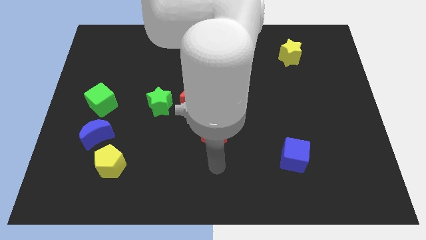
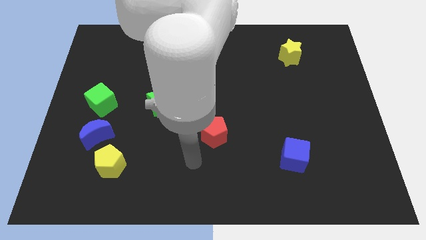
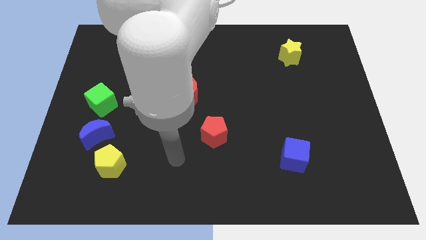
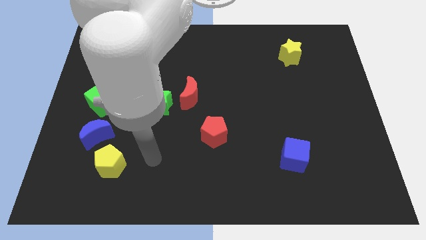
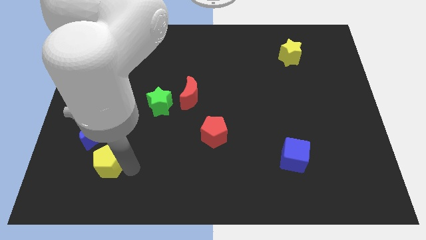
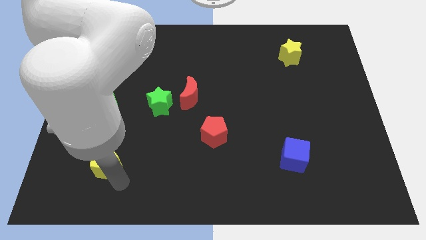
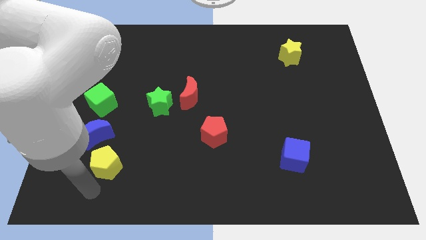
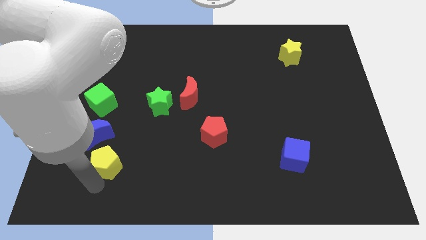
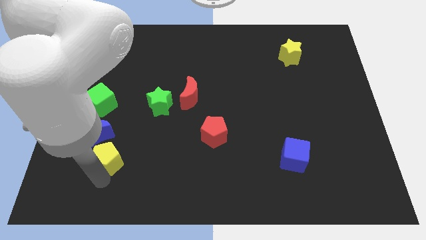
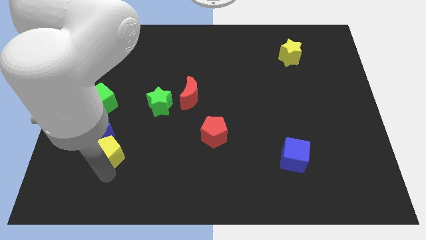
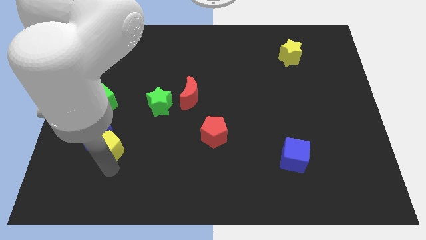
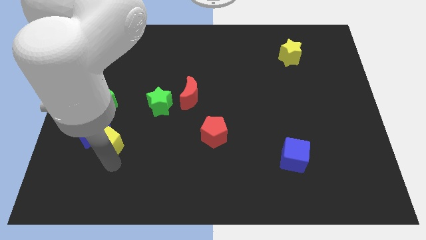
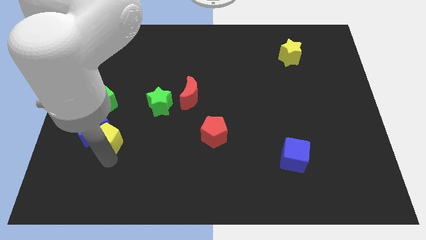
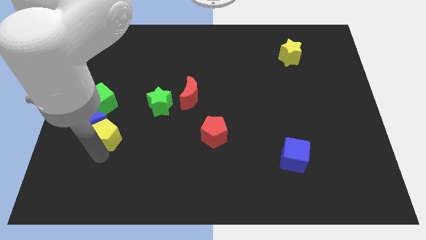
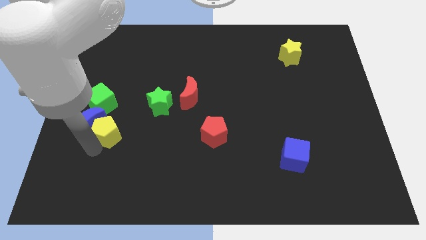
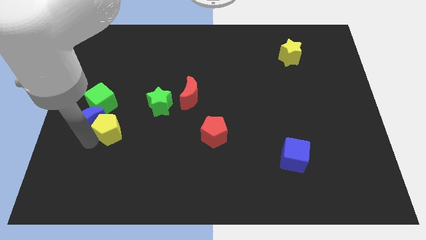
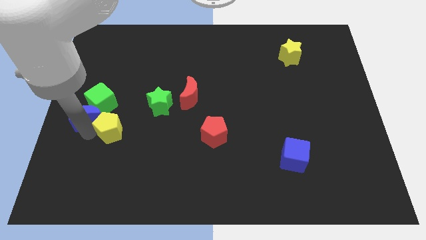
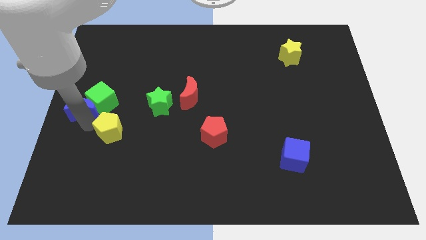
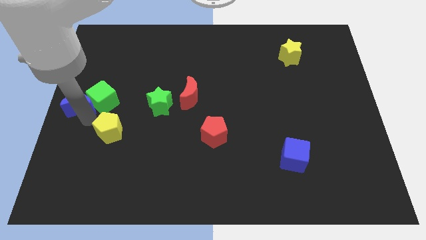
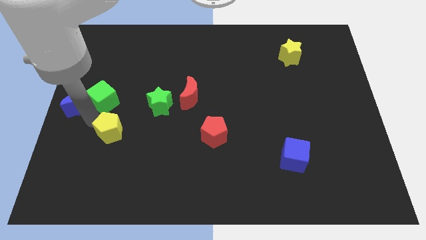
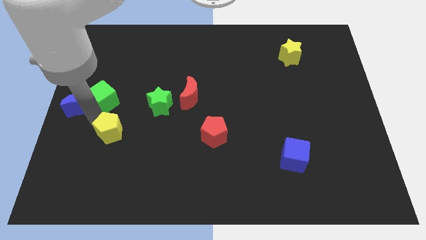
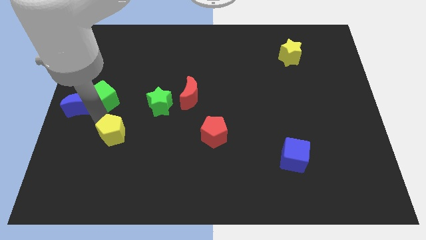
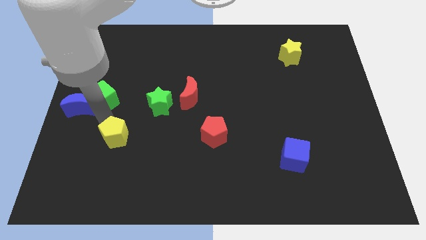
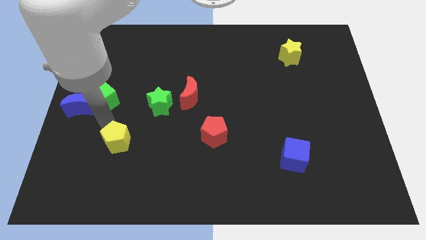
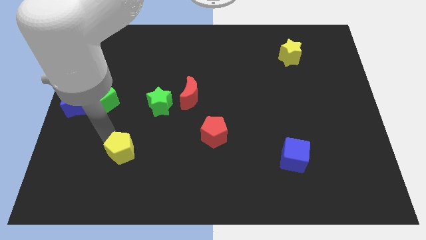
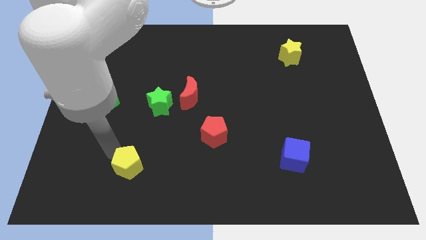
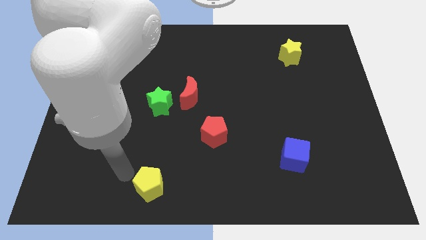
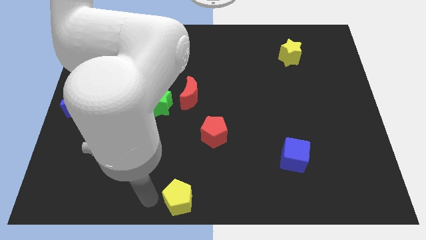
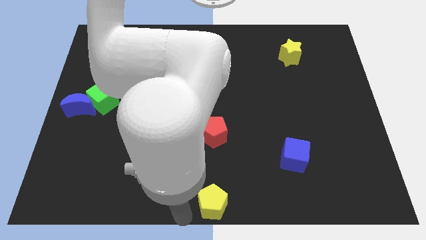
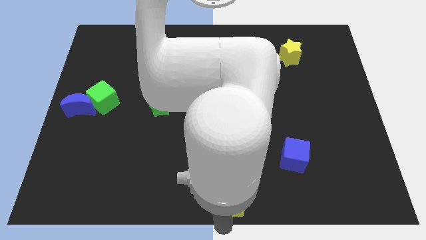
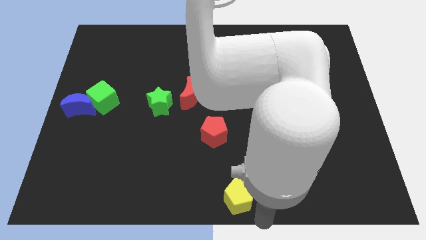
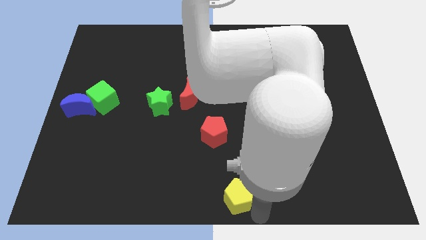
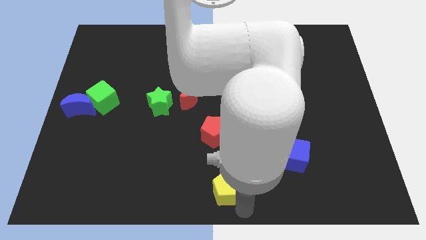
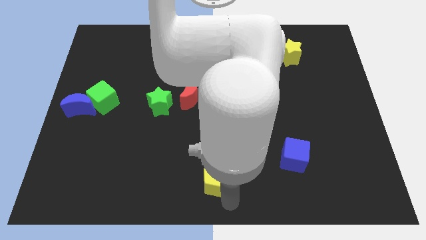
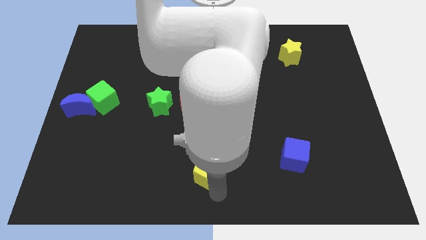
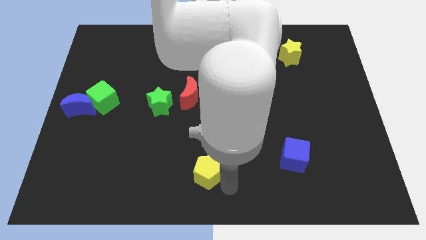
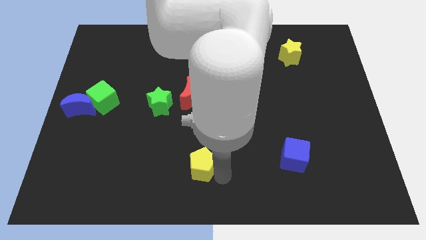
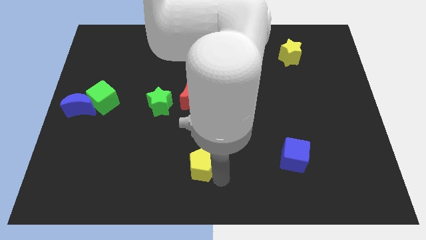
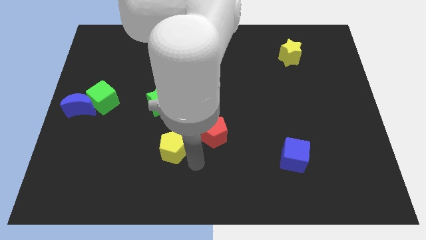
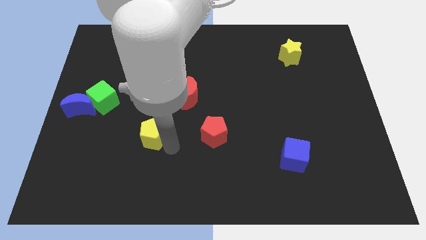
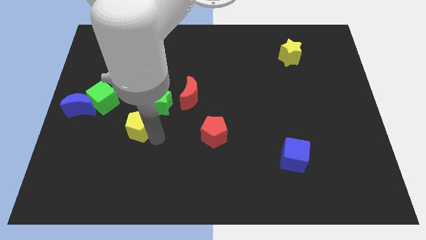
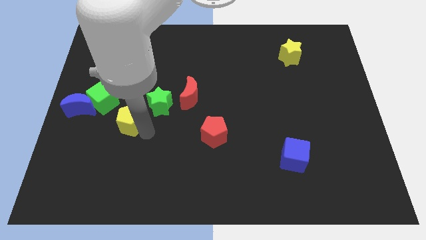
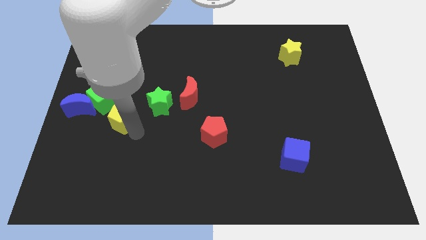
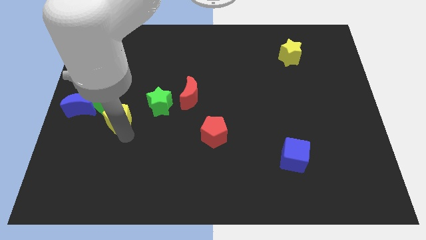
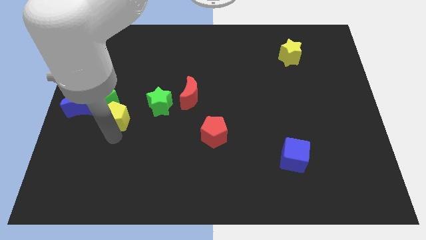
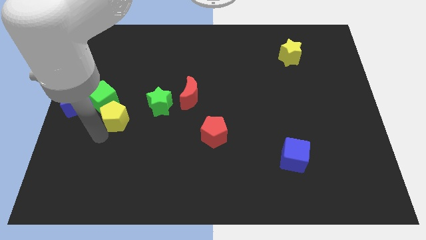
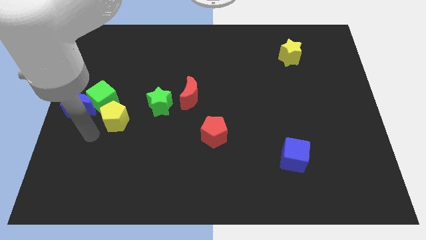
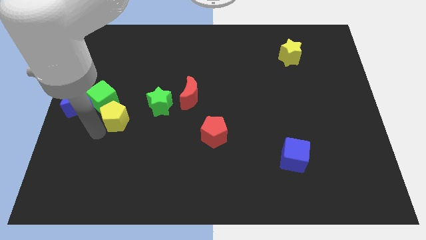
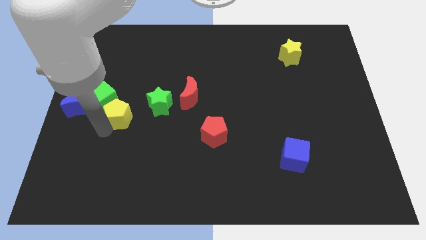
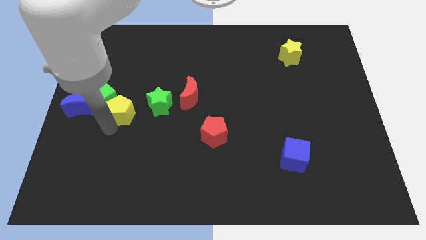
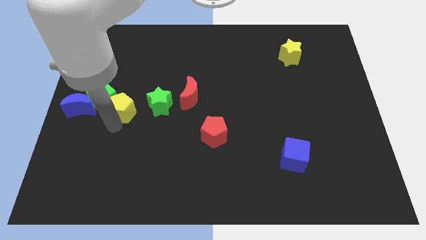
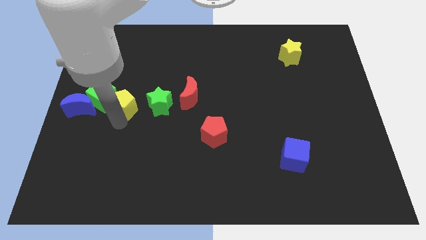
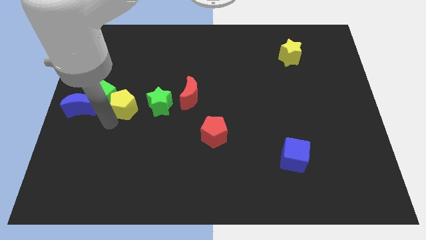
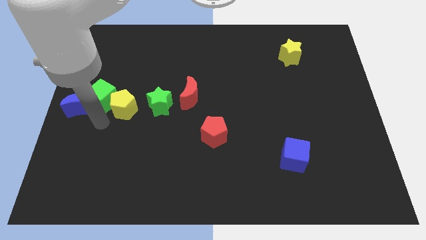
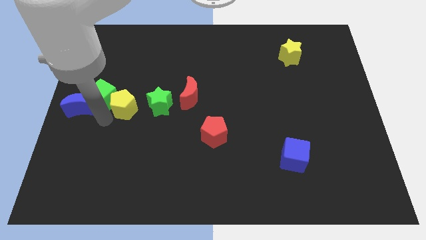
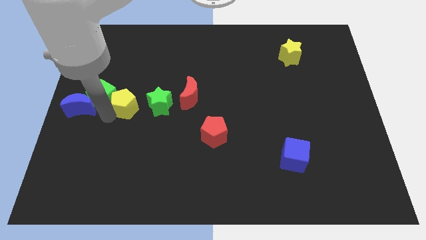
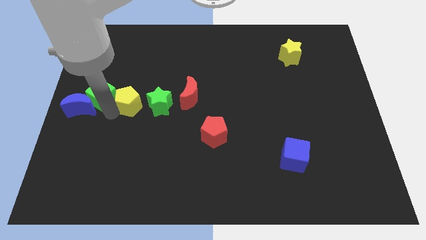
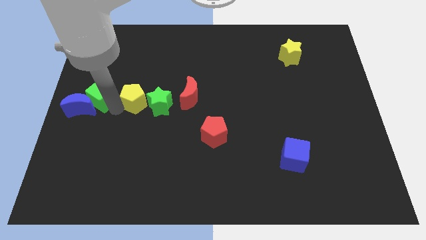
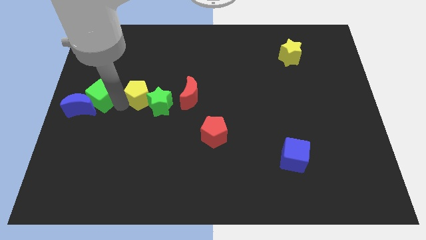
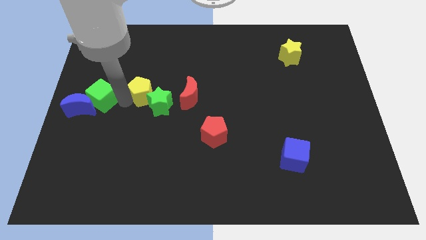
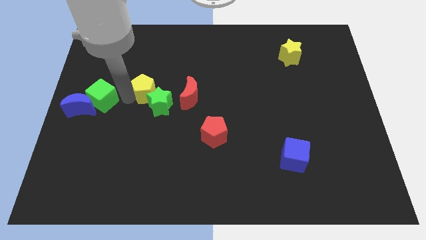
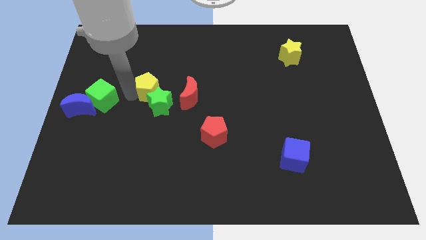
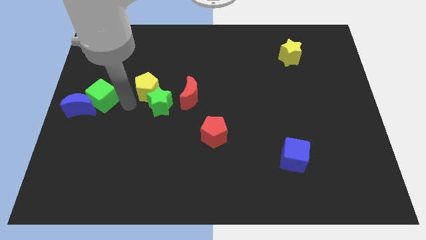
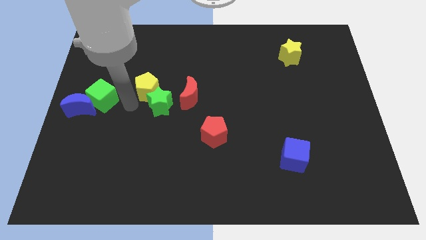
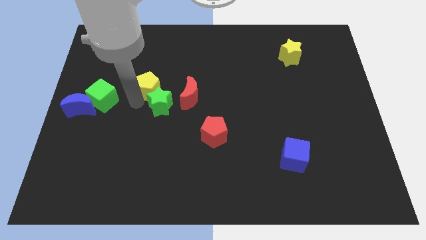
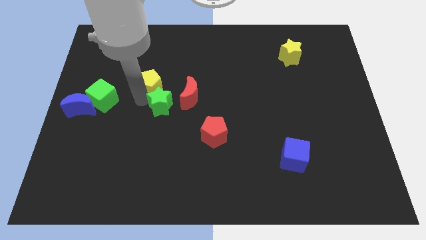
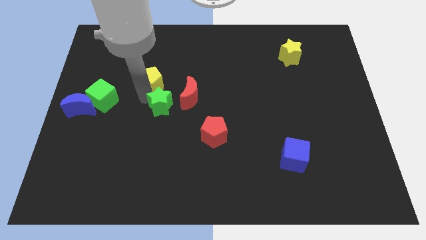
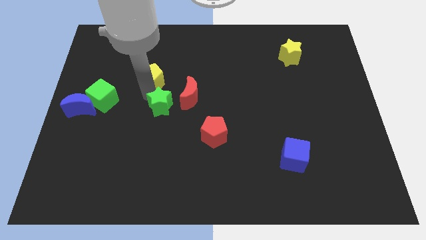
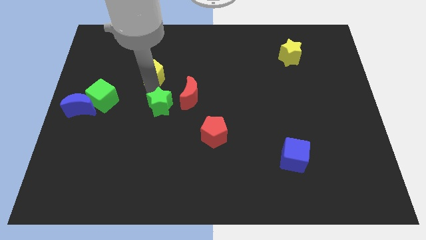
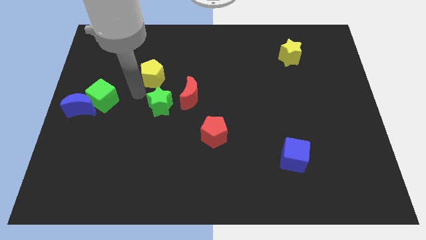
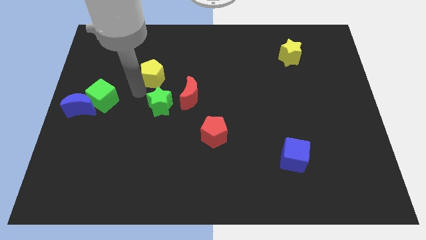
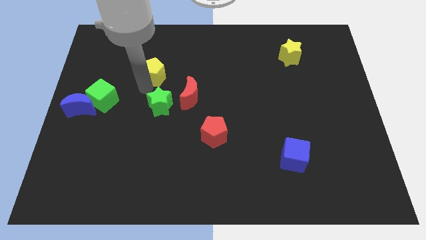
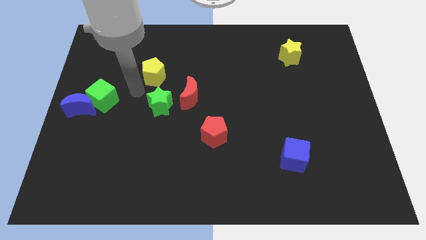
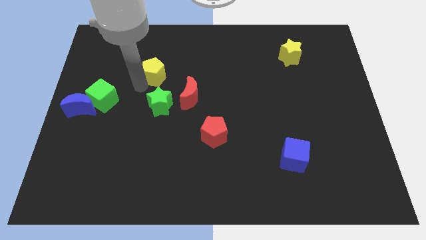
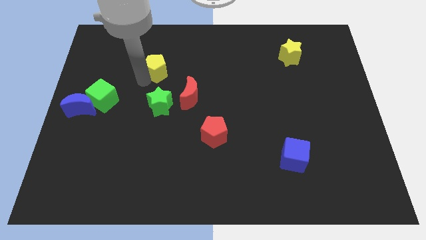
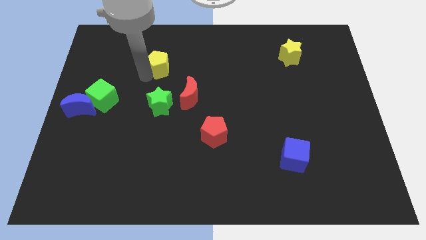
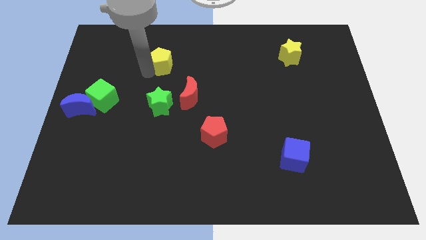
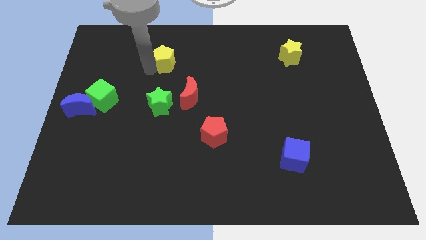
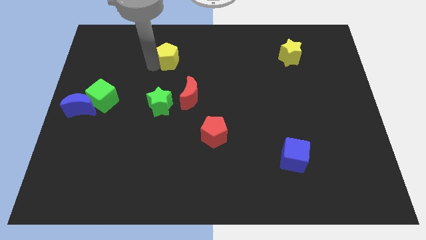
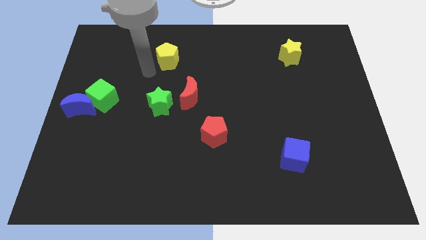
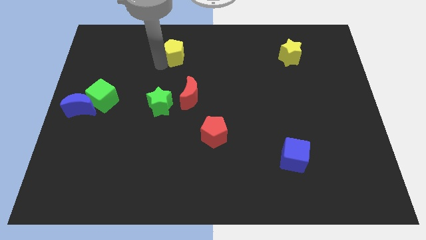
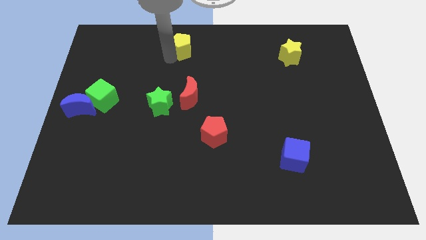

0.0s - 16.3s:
slide the yellow pentagon to the top
